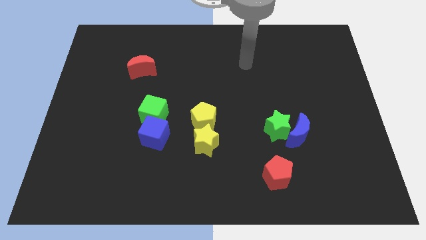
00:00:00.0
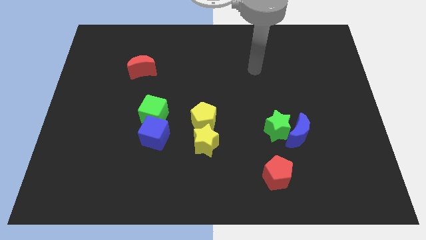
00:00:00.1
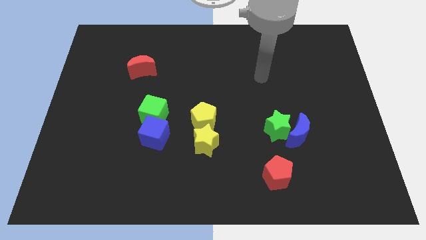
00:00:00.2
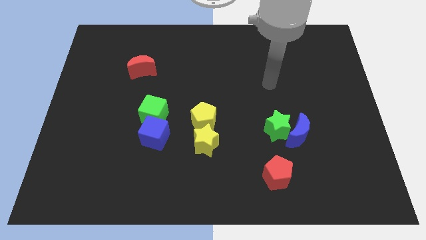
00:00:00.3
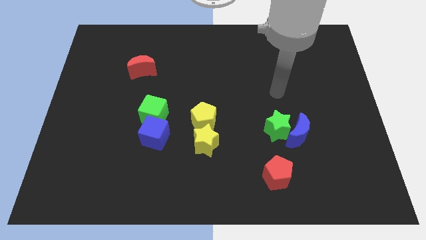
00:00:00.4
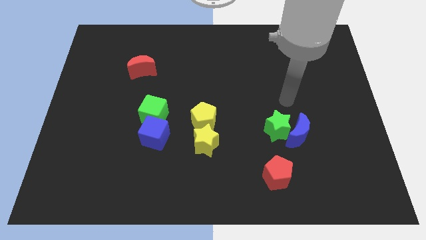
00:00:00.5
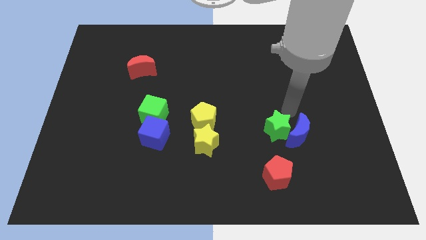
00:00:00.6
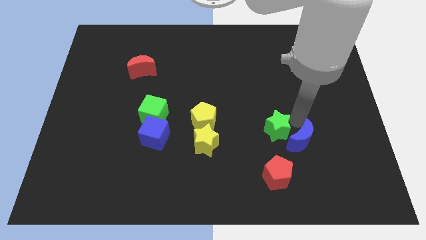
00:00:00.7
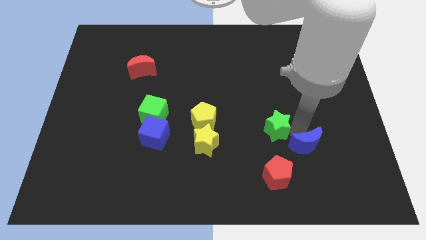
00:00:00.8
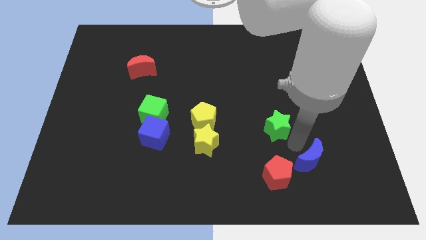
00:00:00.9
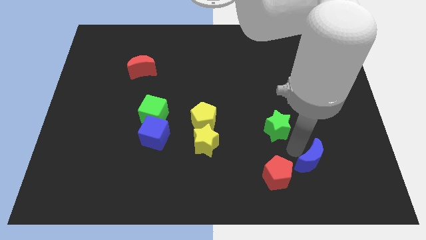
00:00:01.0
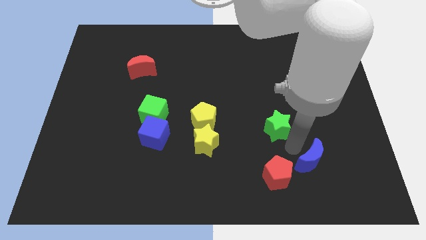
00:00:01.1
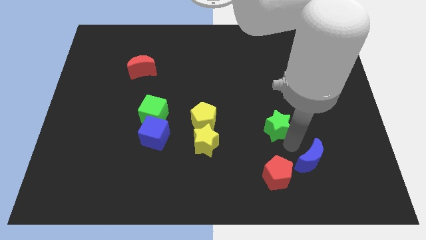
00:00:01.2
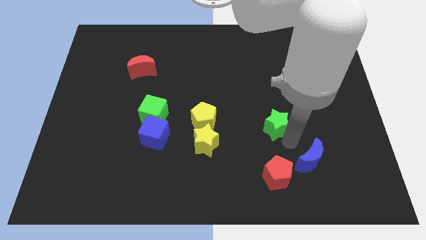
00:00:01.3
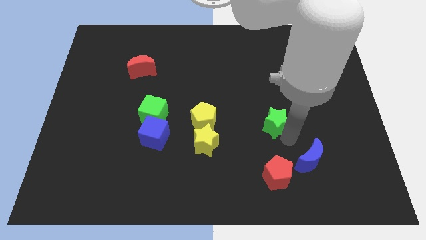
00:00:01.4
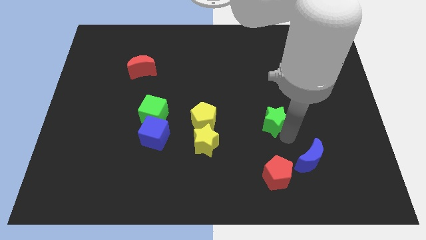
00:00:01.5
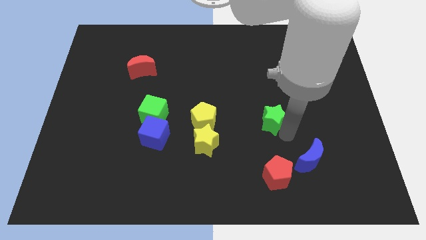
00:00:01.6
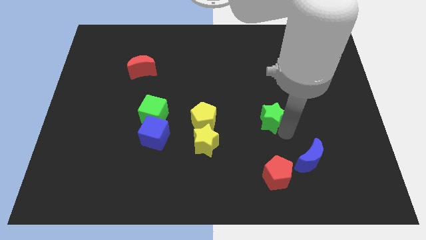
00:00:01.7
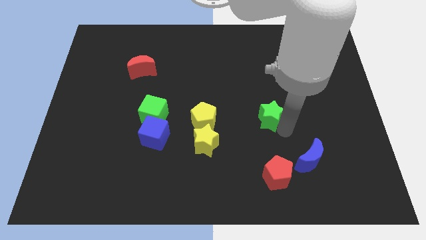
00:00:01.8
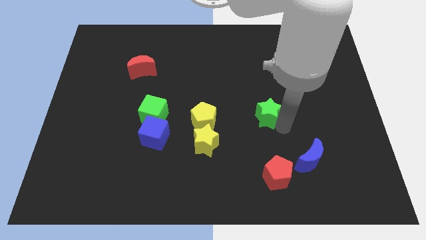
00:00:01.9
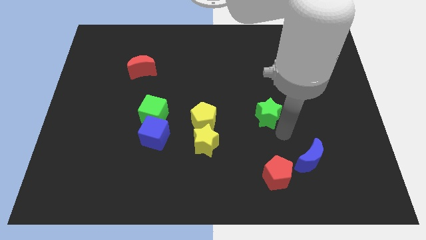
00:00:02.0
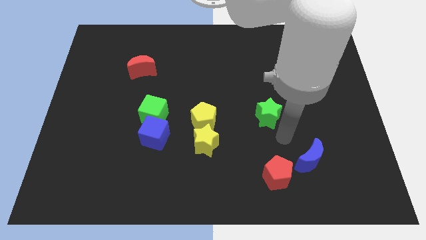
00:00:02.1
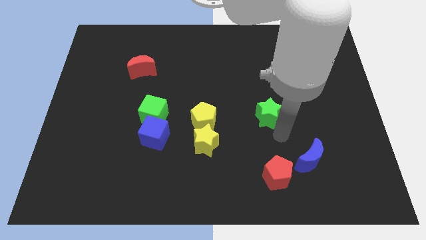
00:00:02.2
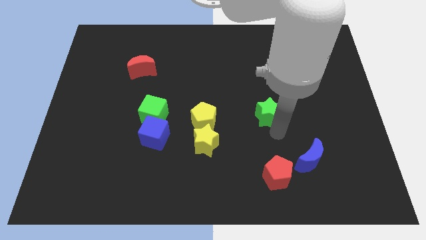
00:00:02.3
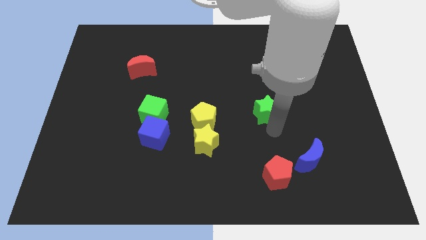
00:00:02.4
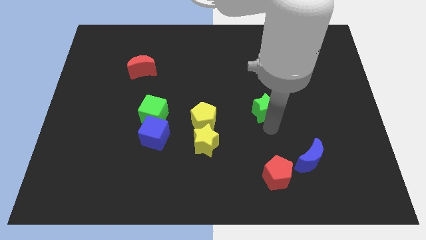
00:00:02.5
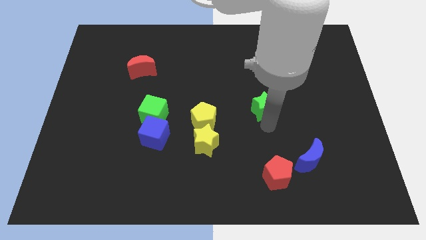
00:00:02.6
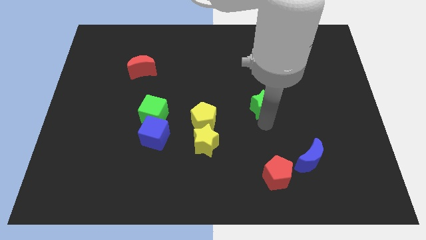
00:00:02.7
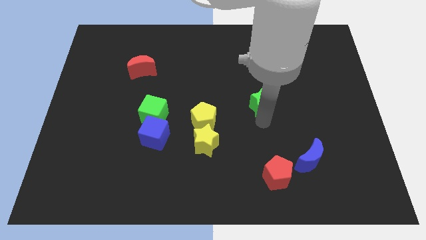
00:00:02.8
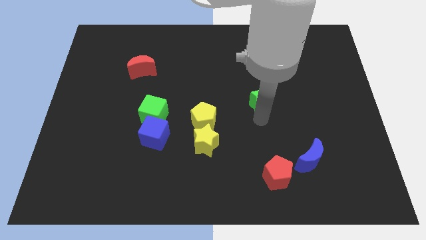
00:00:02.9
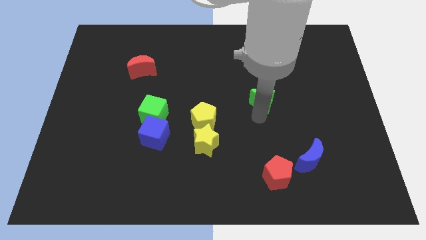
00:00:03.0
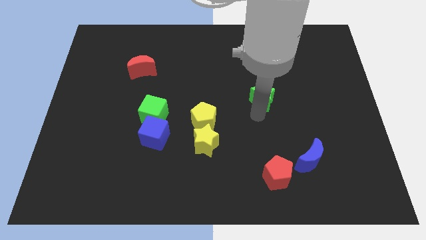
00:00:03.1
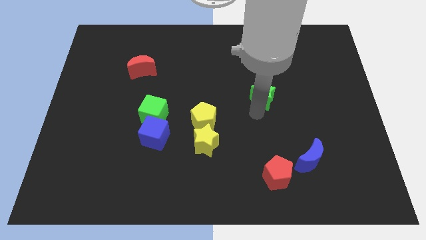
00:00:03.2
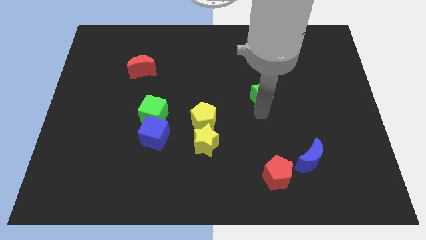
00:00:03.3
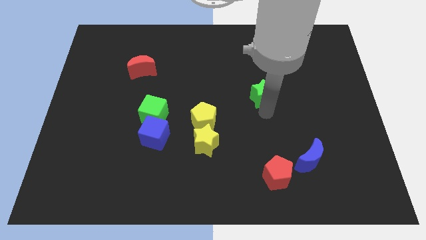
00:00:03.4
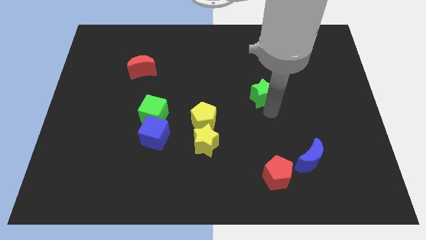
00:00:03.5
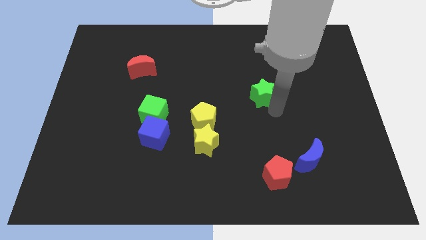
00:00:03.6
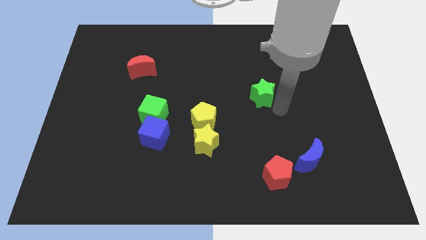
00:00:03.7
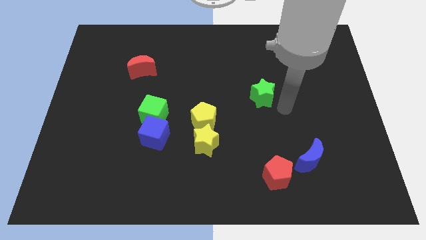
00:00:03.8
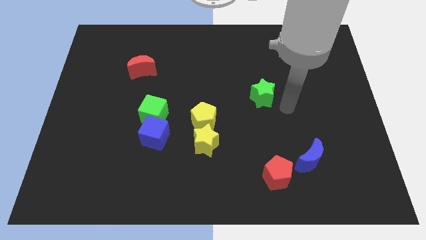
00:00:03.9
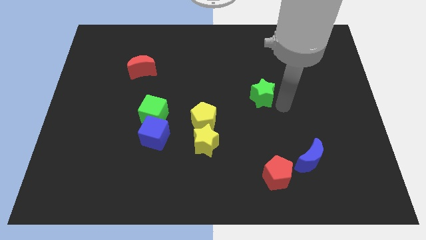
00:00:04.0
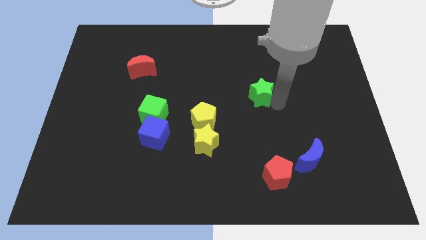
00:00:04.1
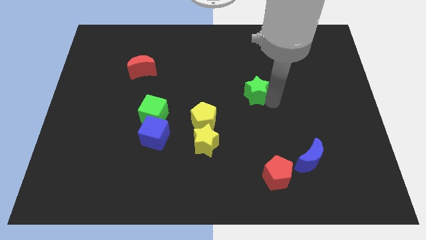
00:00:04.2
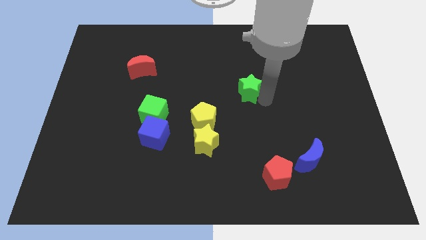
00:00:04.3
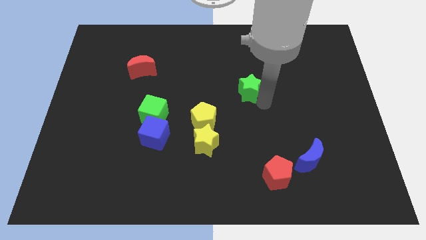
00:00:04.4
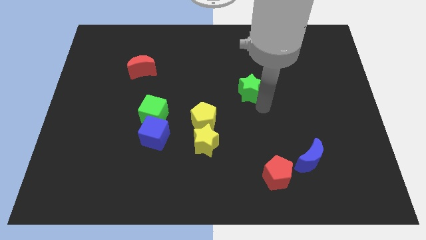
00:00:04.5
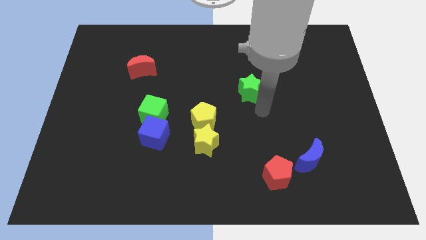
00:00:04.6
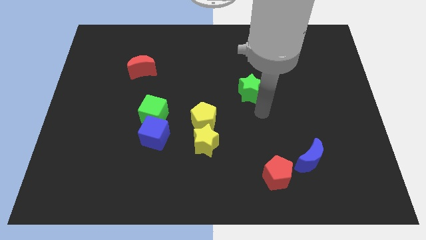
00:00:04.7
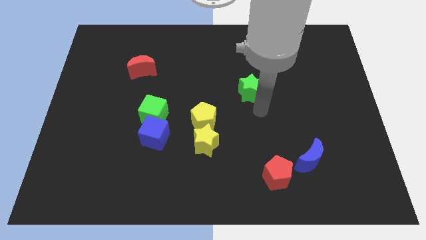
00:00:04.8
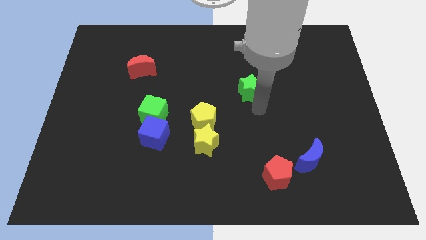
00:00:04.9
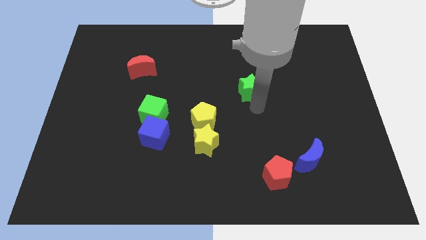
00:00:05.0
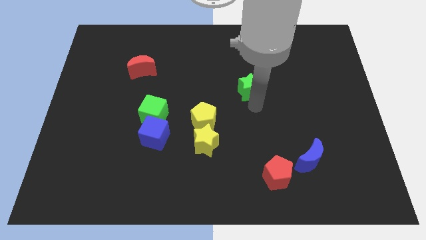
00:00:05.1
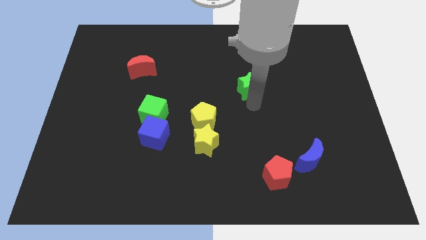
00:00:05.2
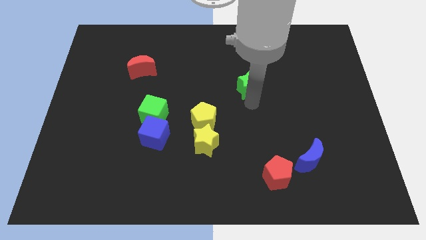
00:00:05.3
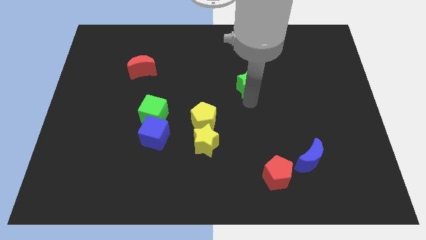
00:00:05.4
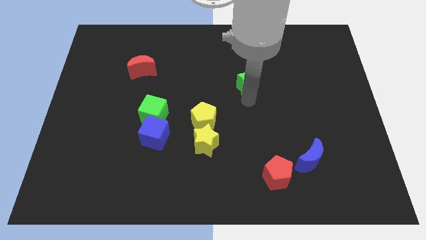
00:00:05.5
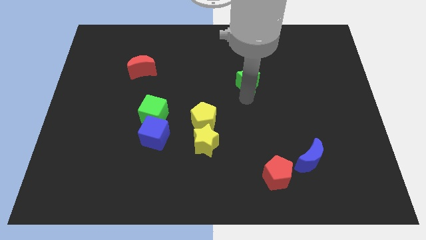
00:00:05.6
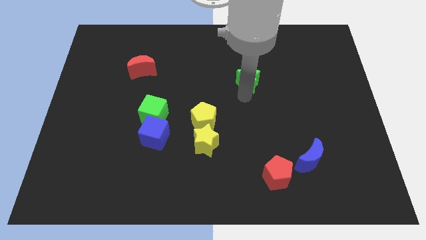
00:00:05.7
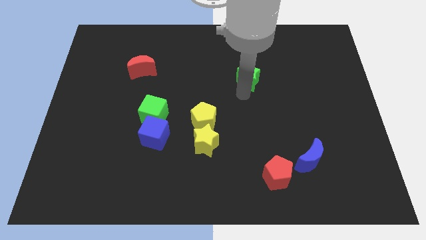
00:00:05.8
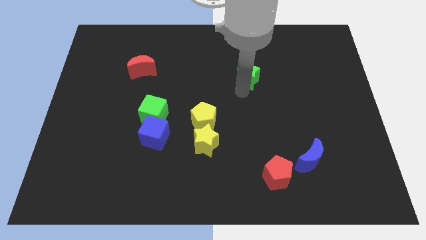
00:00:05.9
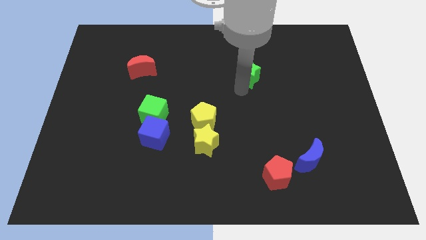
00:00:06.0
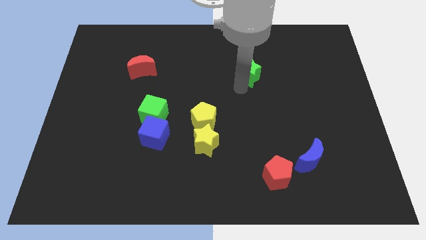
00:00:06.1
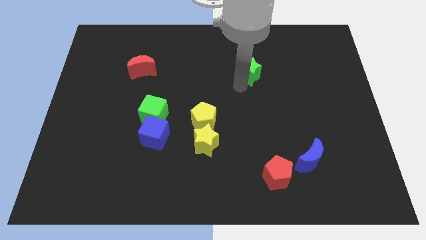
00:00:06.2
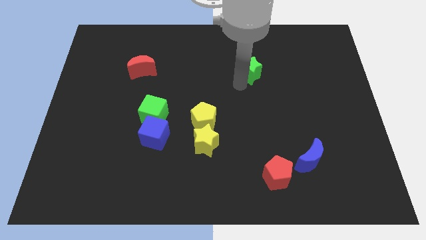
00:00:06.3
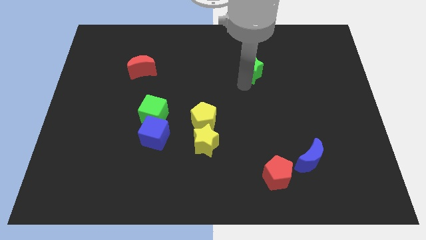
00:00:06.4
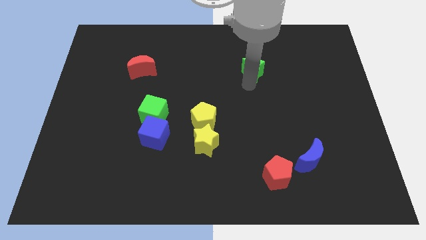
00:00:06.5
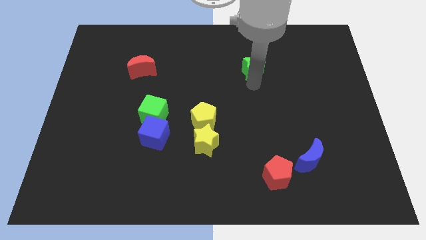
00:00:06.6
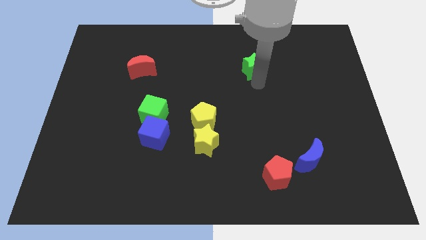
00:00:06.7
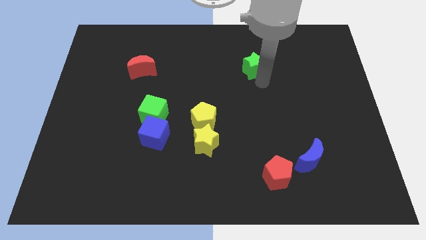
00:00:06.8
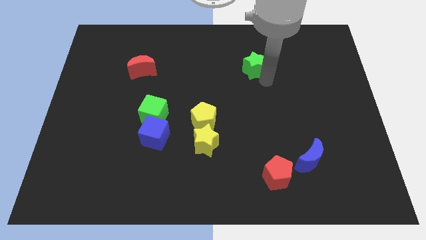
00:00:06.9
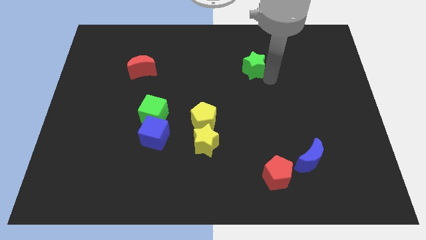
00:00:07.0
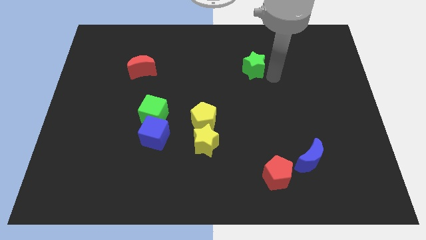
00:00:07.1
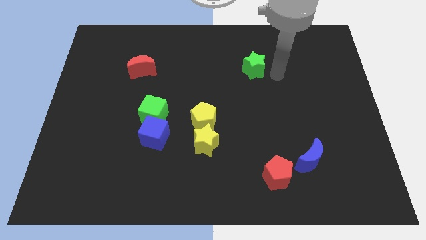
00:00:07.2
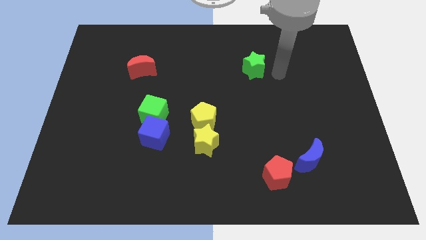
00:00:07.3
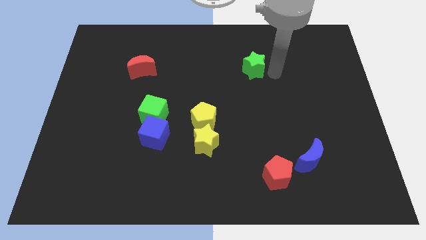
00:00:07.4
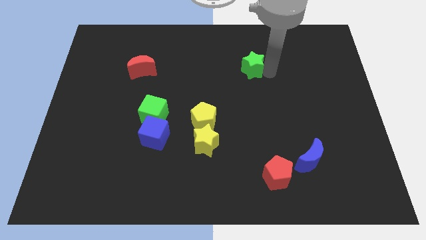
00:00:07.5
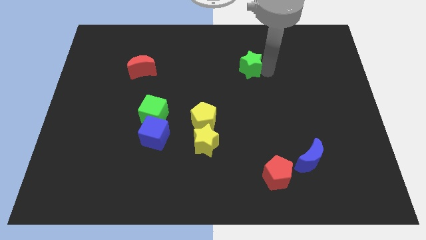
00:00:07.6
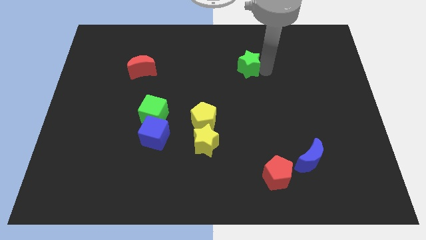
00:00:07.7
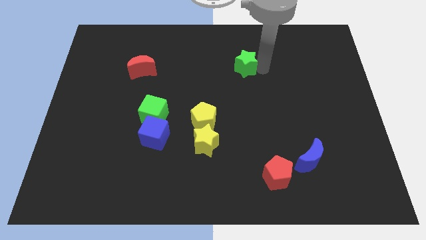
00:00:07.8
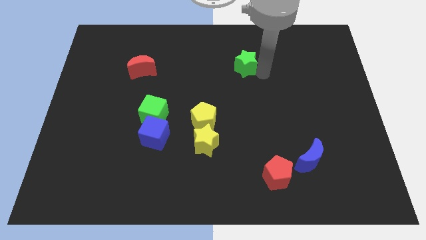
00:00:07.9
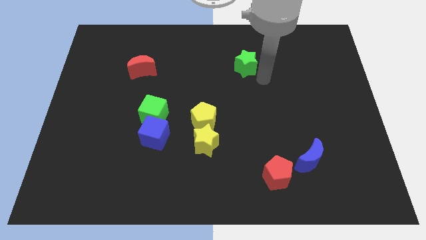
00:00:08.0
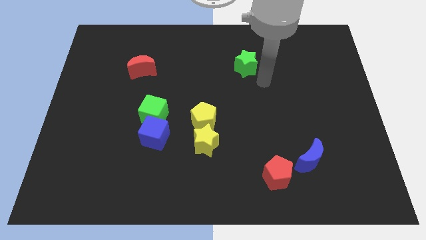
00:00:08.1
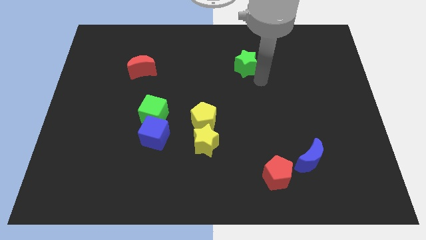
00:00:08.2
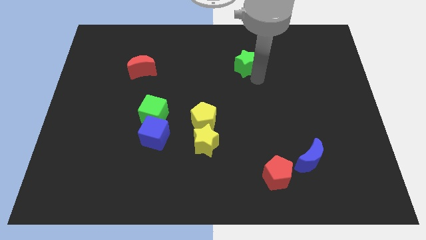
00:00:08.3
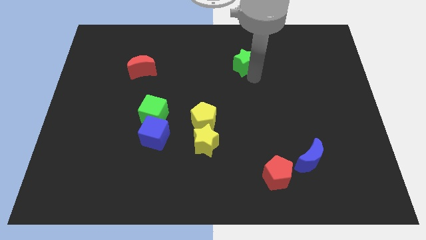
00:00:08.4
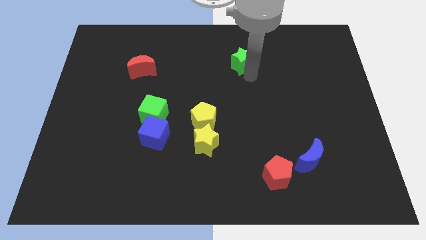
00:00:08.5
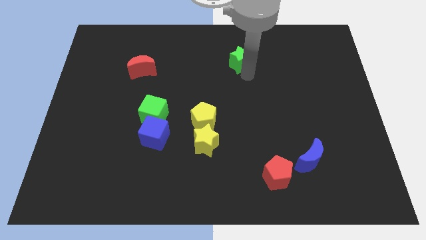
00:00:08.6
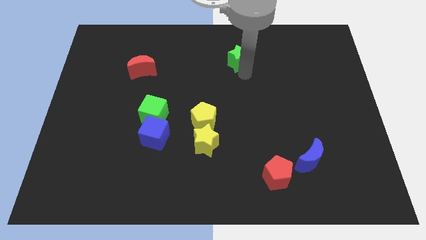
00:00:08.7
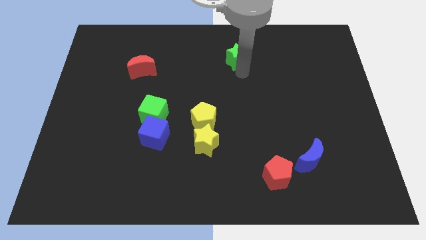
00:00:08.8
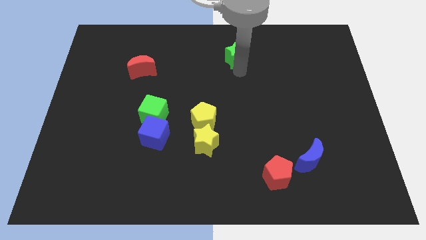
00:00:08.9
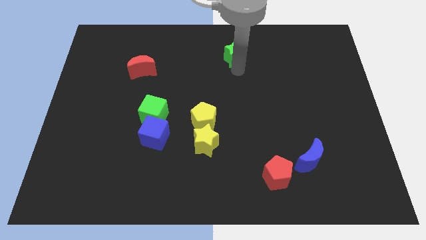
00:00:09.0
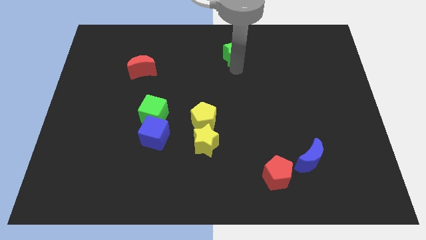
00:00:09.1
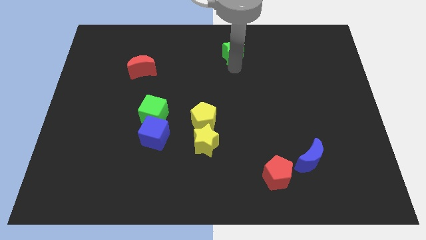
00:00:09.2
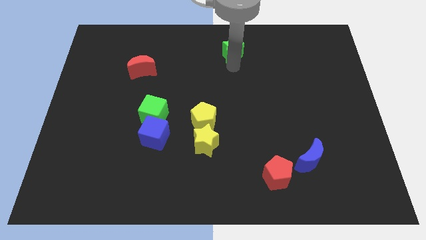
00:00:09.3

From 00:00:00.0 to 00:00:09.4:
put the green star to the towards your base
